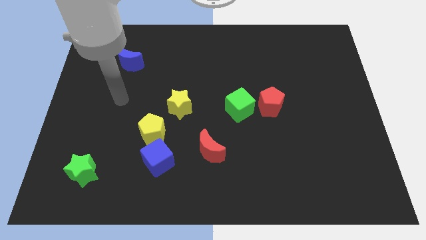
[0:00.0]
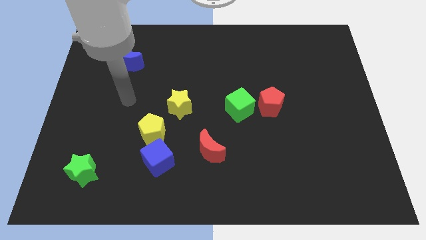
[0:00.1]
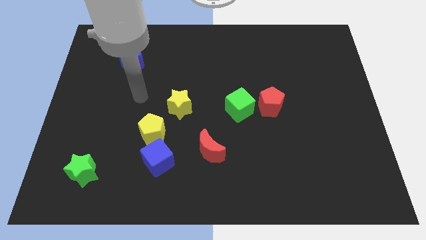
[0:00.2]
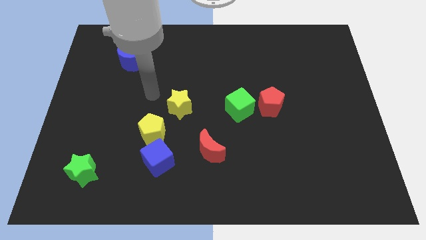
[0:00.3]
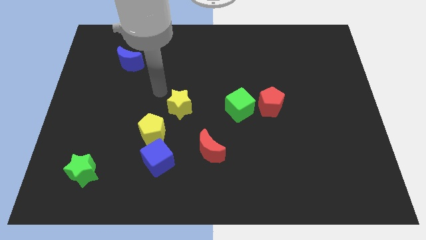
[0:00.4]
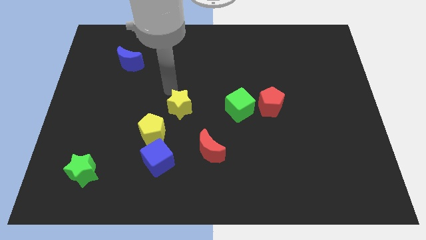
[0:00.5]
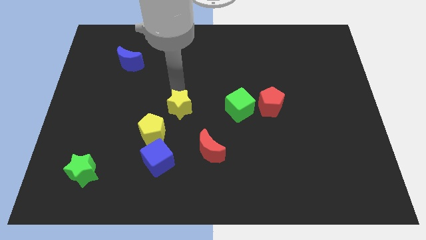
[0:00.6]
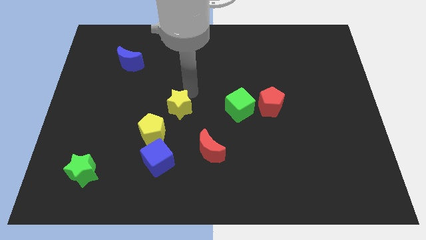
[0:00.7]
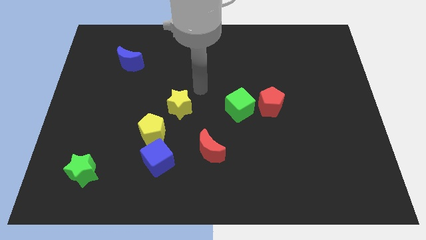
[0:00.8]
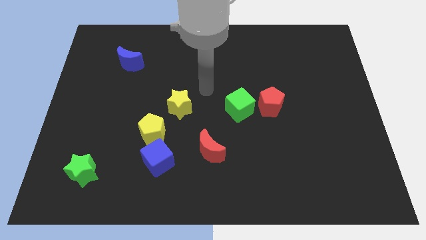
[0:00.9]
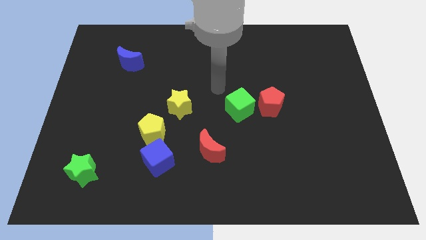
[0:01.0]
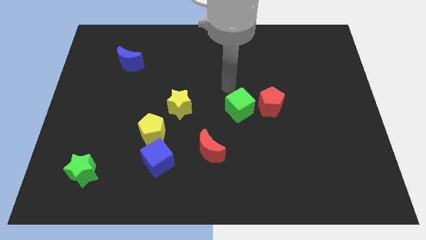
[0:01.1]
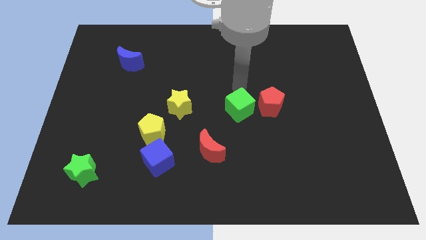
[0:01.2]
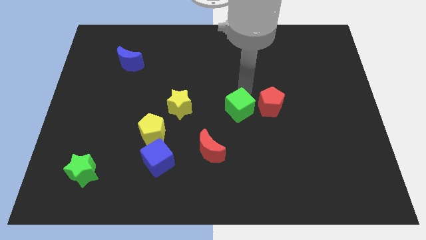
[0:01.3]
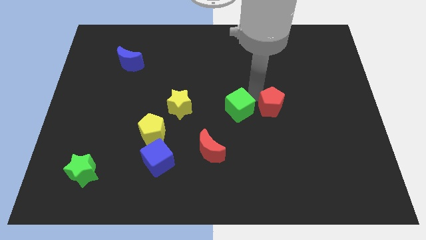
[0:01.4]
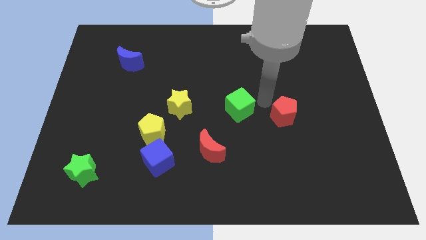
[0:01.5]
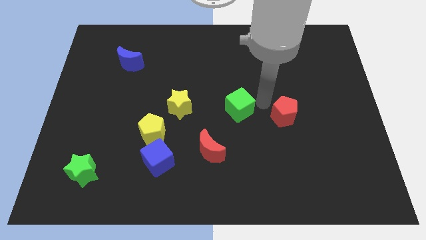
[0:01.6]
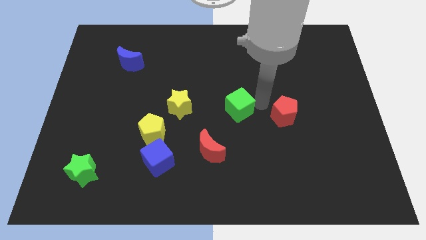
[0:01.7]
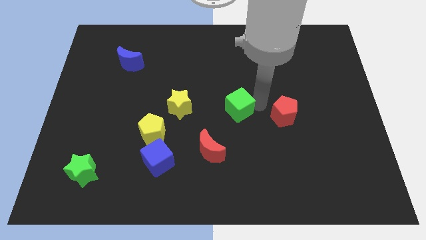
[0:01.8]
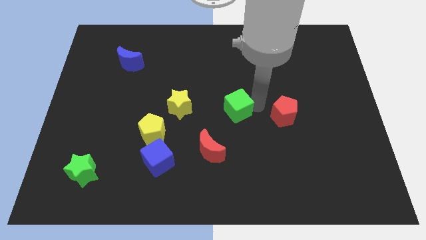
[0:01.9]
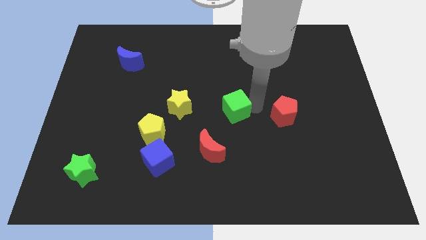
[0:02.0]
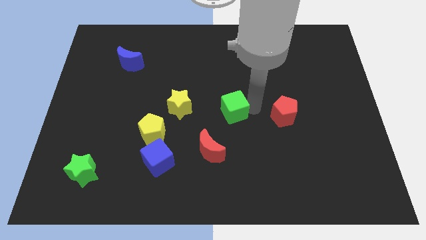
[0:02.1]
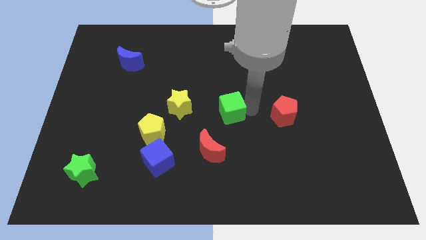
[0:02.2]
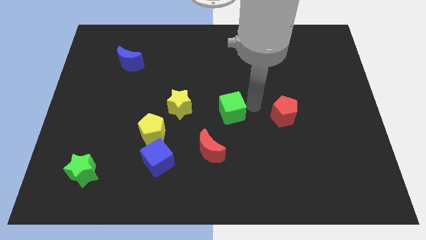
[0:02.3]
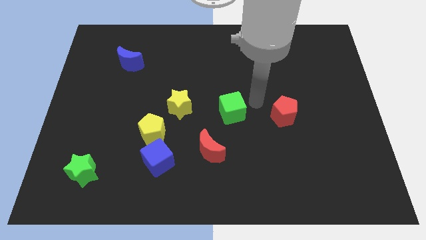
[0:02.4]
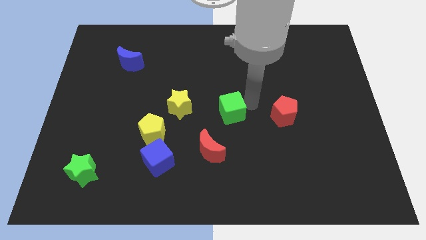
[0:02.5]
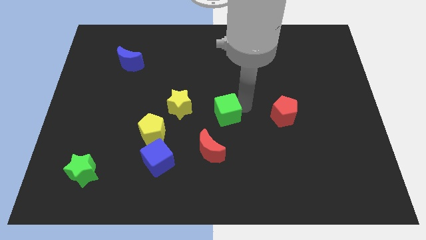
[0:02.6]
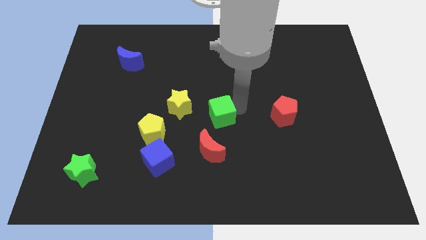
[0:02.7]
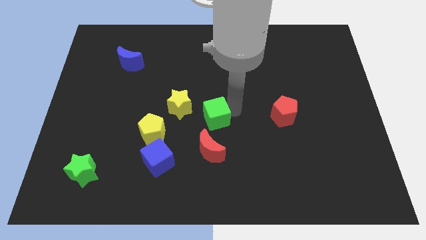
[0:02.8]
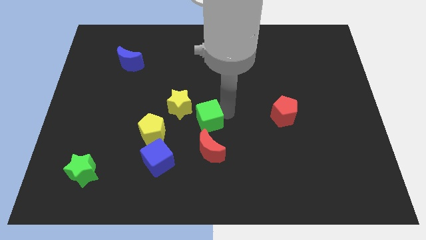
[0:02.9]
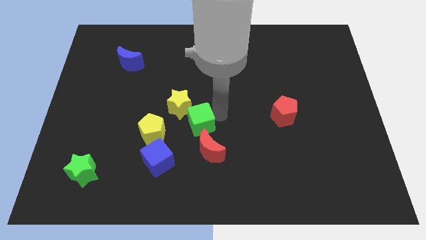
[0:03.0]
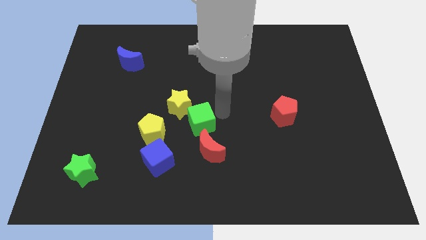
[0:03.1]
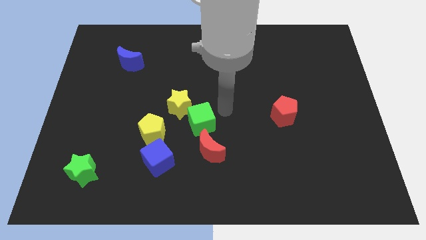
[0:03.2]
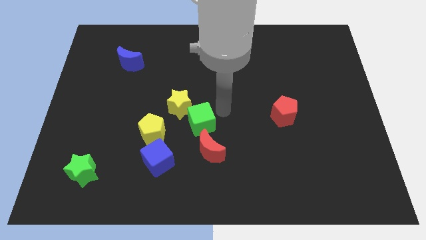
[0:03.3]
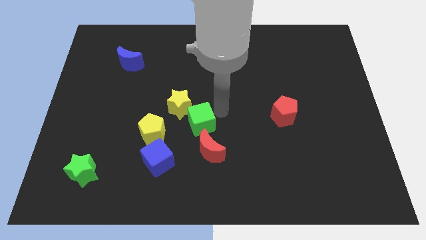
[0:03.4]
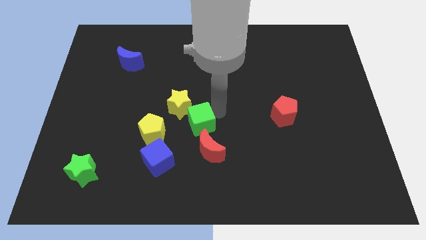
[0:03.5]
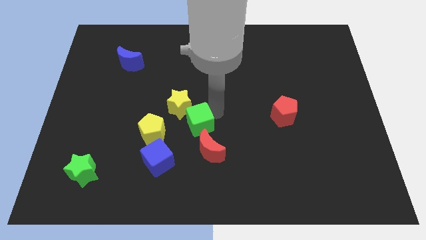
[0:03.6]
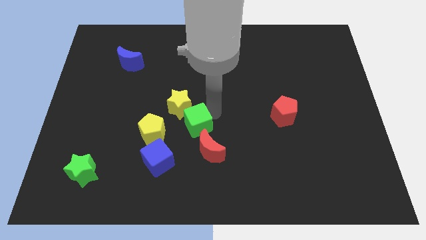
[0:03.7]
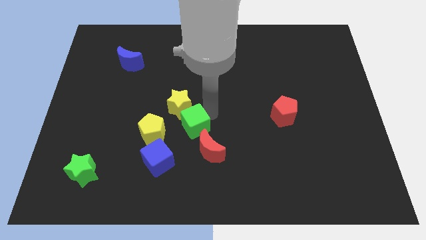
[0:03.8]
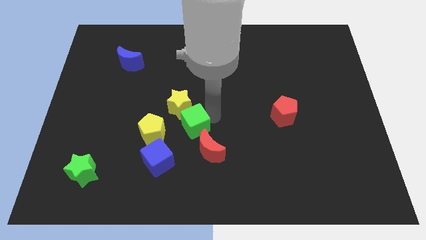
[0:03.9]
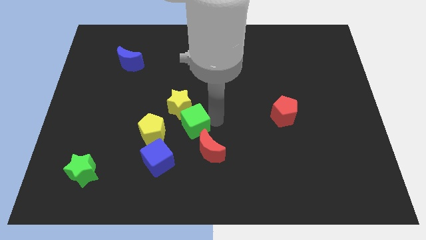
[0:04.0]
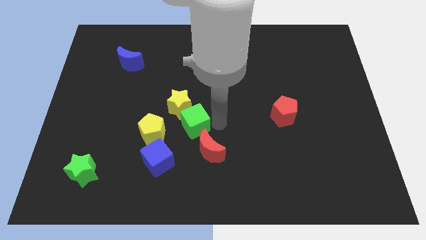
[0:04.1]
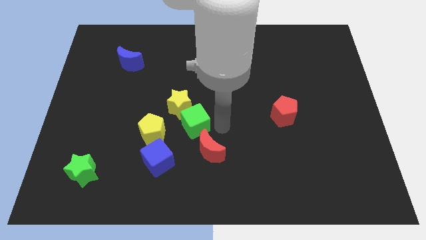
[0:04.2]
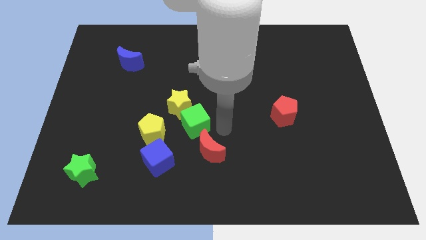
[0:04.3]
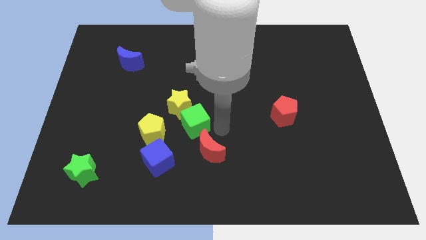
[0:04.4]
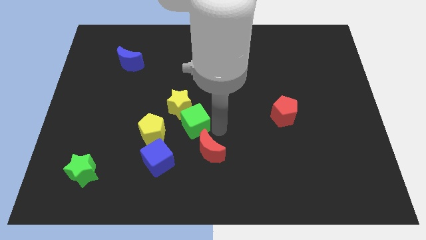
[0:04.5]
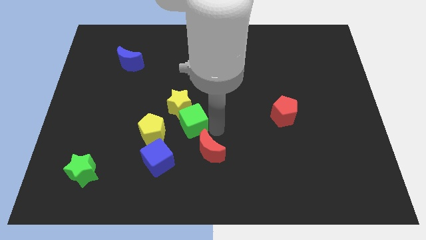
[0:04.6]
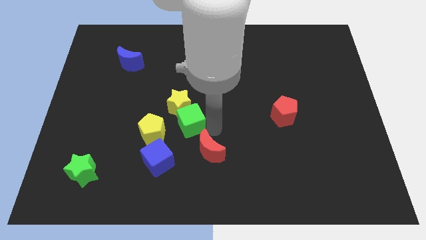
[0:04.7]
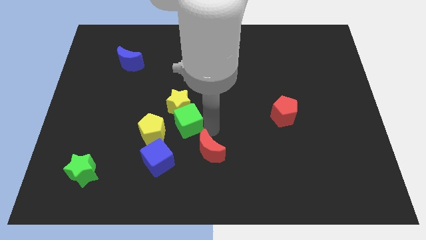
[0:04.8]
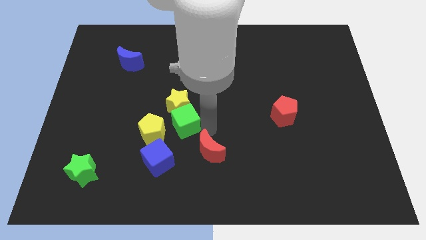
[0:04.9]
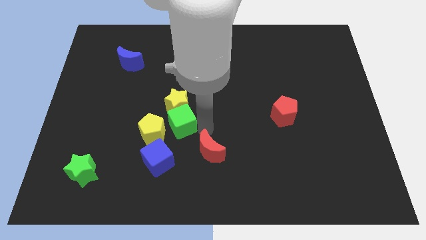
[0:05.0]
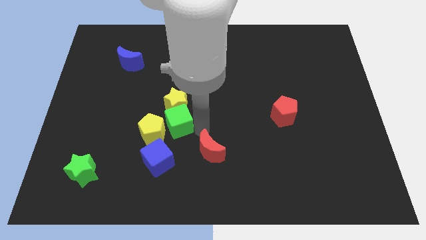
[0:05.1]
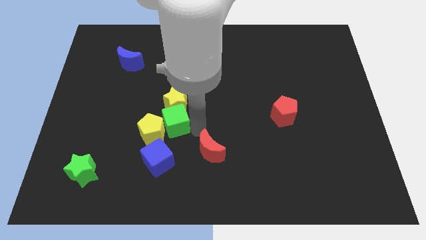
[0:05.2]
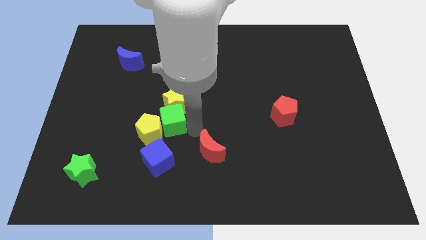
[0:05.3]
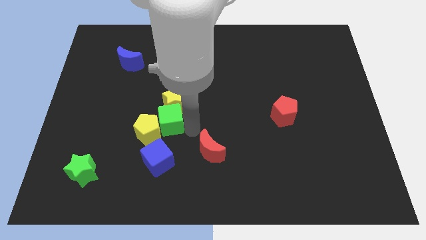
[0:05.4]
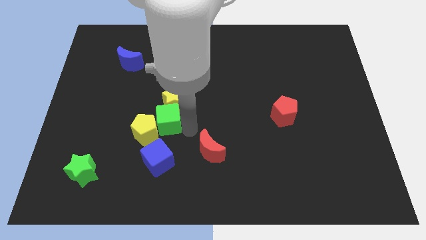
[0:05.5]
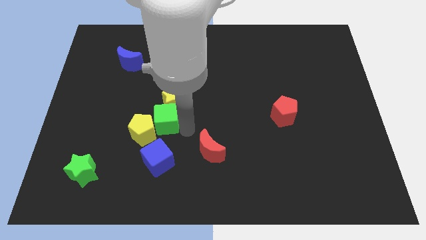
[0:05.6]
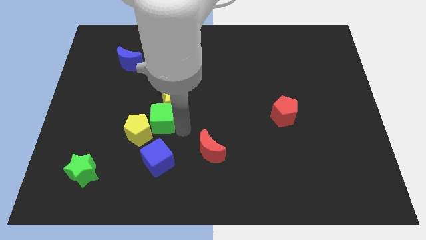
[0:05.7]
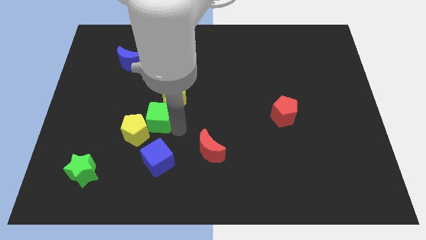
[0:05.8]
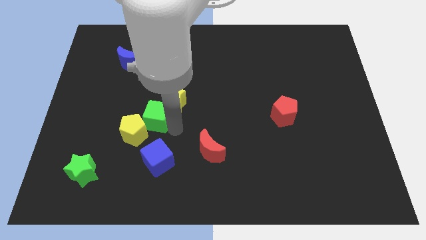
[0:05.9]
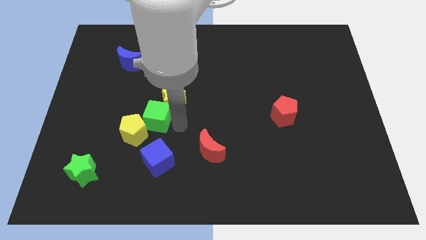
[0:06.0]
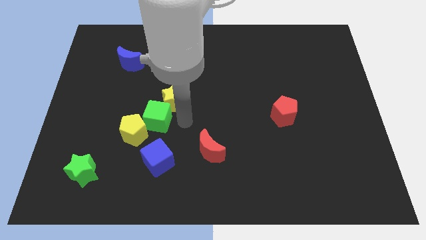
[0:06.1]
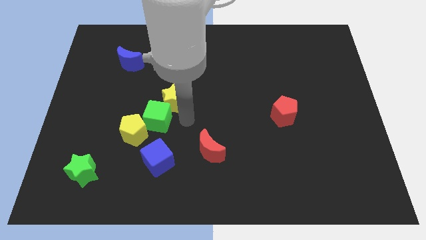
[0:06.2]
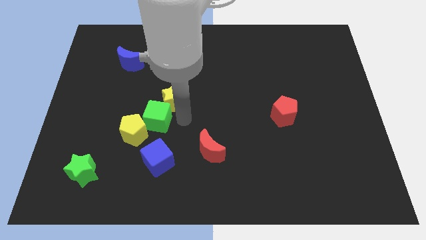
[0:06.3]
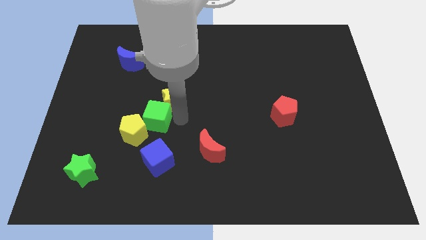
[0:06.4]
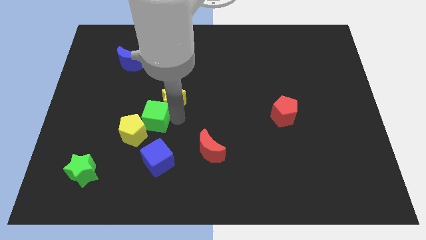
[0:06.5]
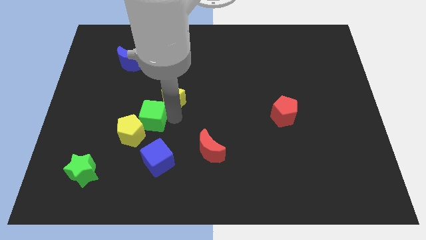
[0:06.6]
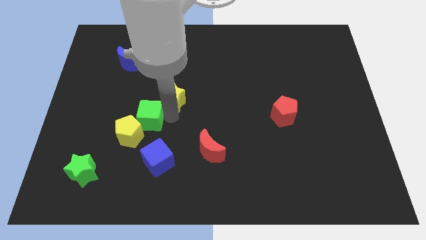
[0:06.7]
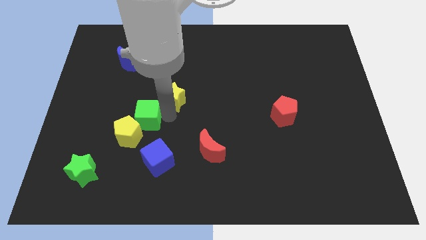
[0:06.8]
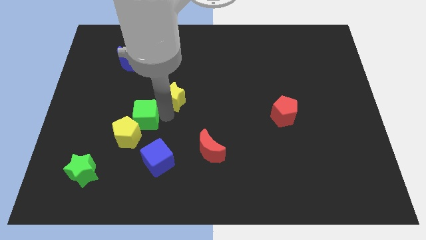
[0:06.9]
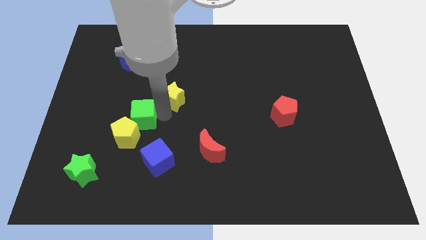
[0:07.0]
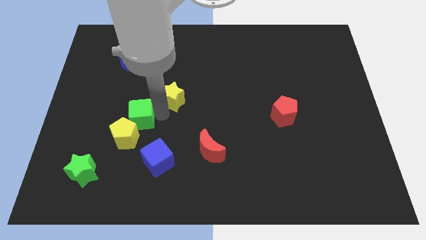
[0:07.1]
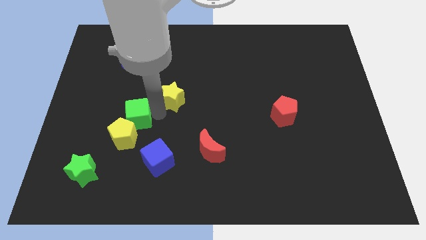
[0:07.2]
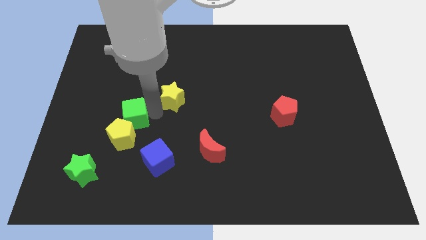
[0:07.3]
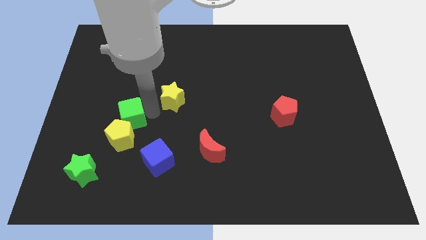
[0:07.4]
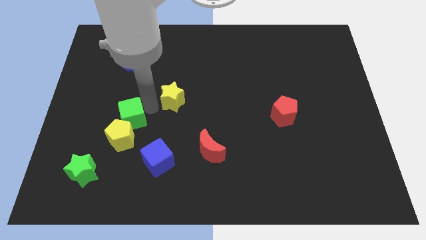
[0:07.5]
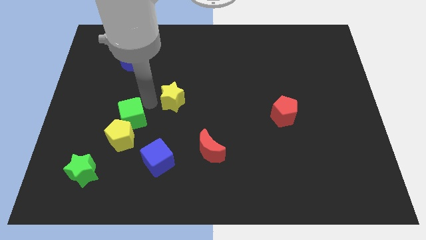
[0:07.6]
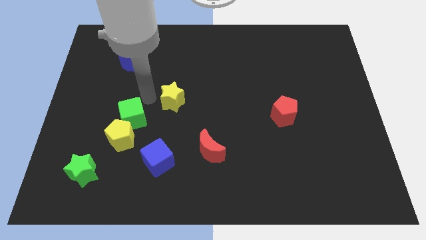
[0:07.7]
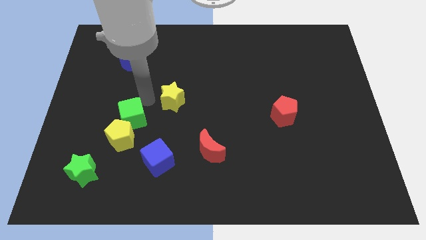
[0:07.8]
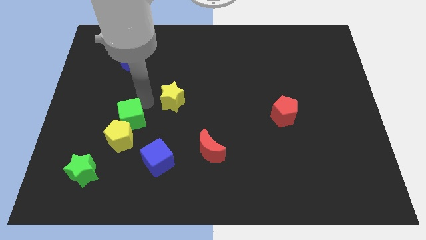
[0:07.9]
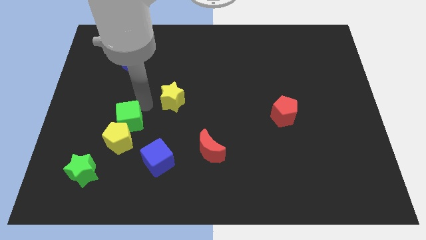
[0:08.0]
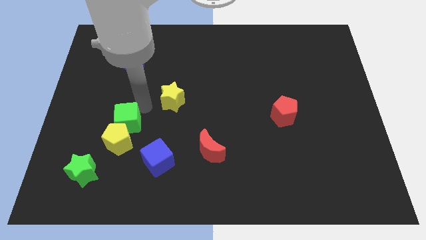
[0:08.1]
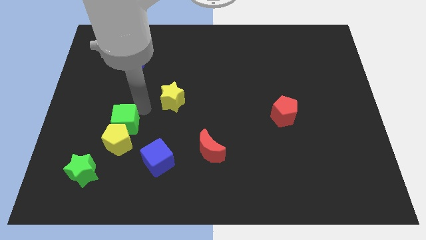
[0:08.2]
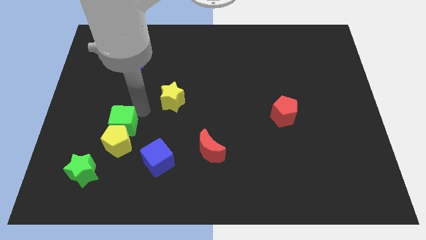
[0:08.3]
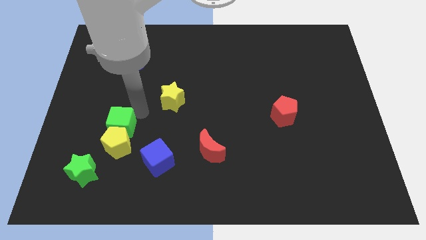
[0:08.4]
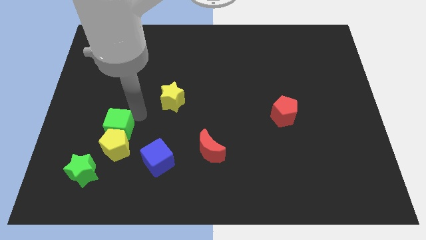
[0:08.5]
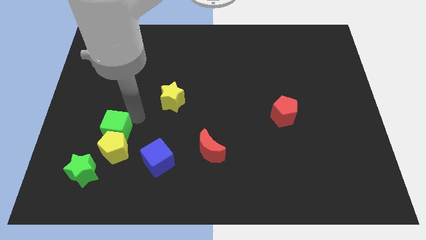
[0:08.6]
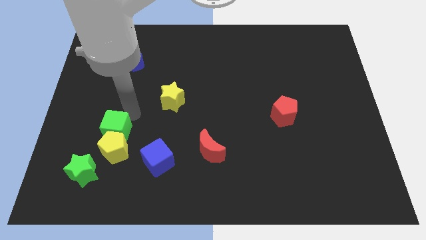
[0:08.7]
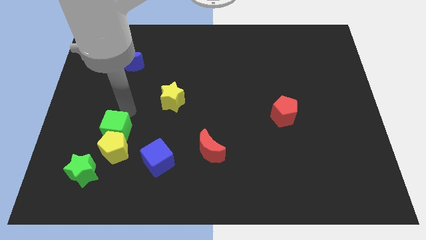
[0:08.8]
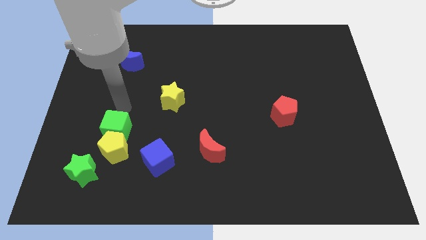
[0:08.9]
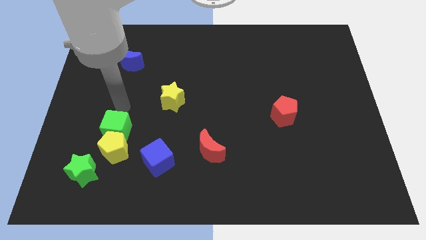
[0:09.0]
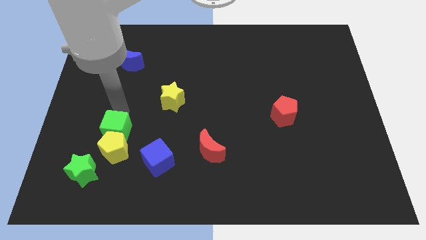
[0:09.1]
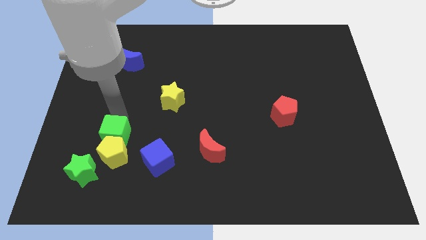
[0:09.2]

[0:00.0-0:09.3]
move the green cube to the top right side of the green star
